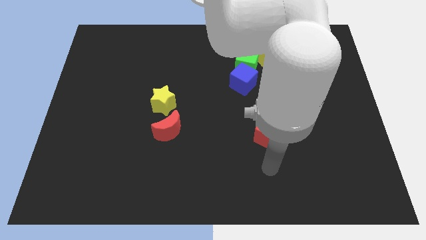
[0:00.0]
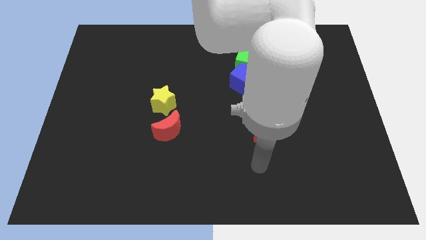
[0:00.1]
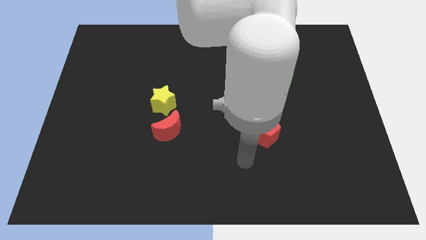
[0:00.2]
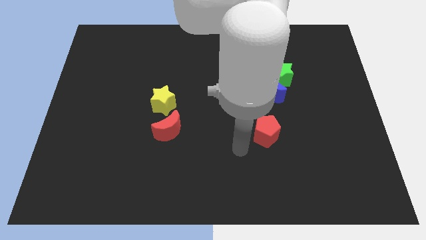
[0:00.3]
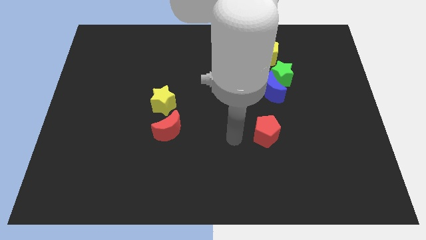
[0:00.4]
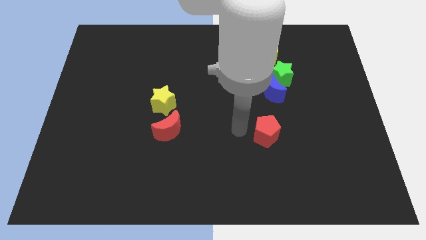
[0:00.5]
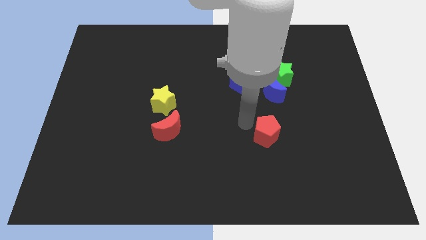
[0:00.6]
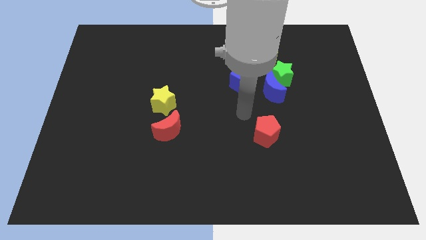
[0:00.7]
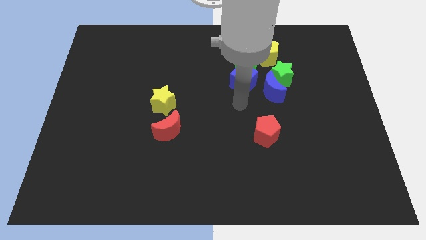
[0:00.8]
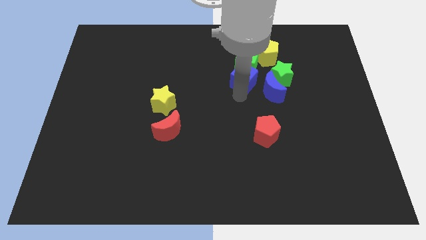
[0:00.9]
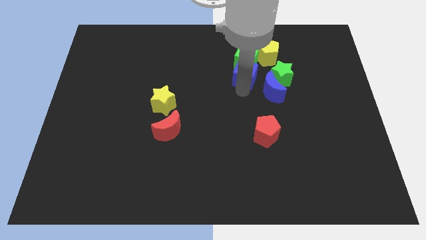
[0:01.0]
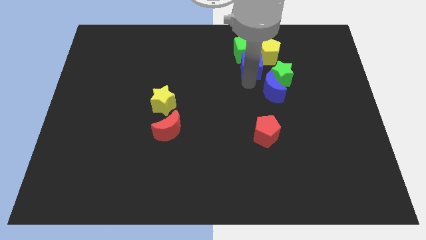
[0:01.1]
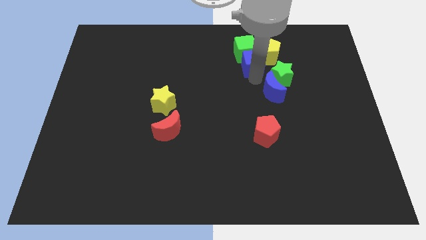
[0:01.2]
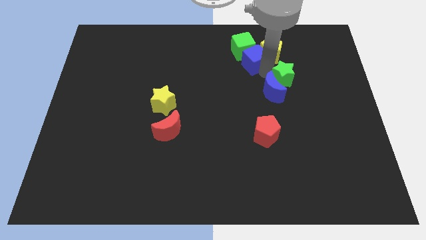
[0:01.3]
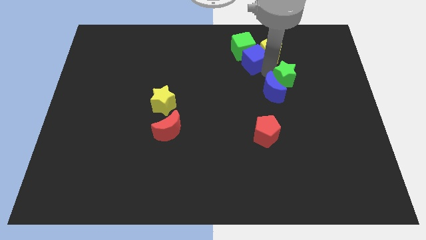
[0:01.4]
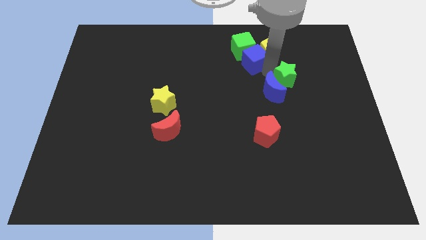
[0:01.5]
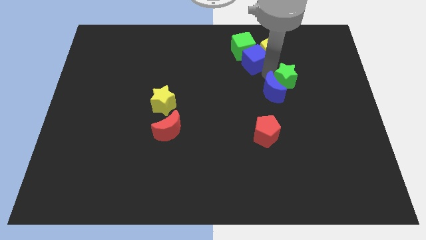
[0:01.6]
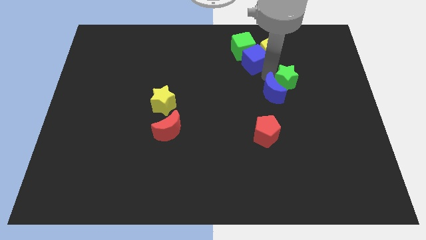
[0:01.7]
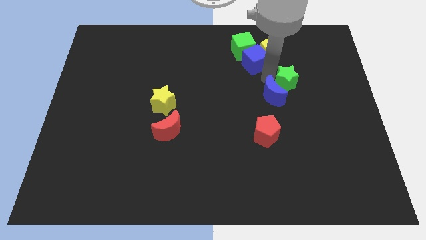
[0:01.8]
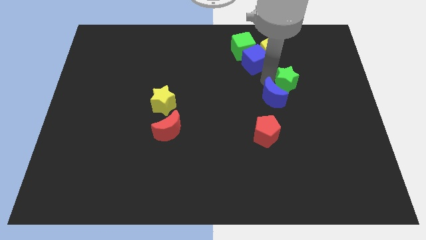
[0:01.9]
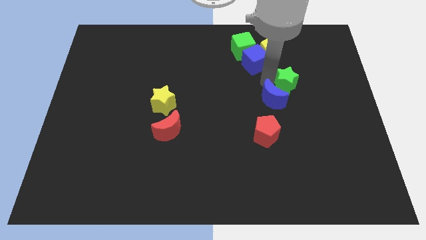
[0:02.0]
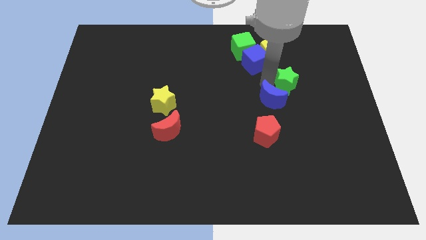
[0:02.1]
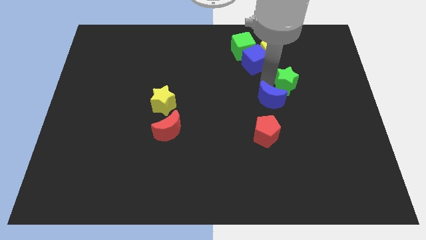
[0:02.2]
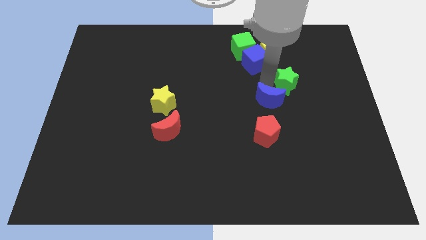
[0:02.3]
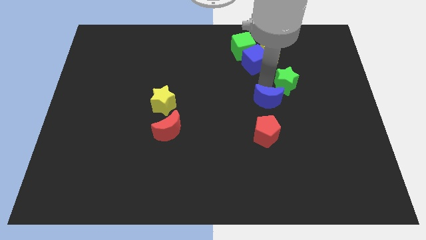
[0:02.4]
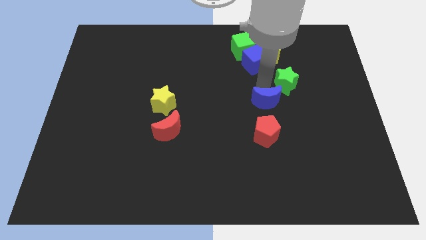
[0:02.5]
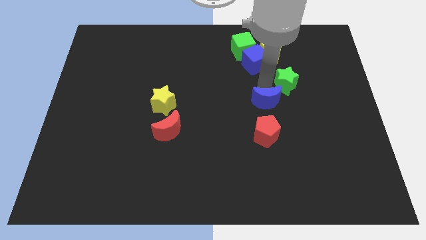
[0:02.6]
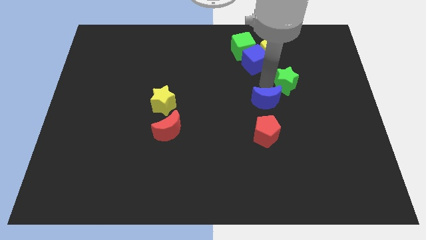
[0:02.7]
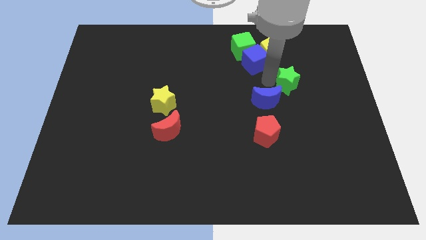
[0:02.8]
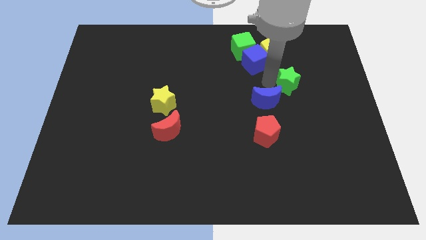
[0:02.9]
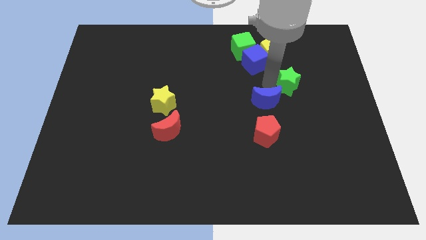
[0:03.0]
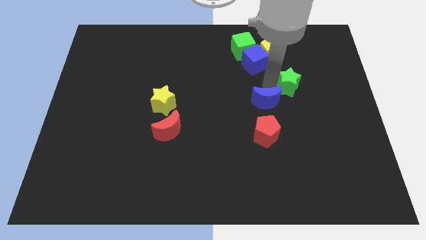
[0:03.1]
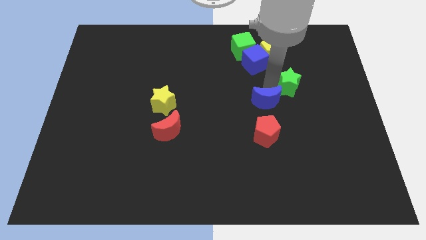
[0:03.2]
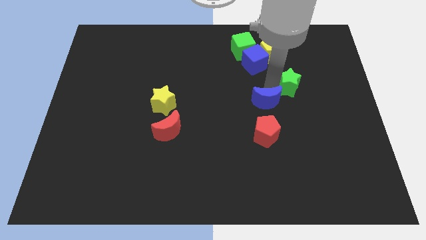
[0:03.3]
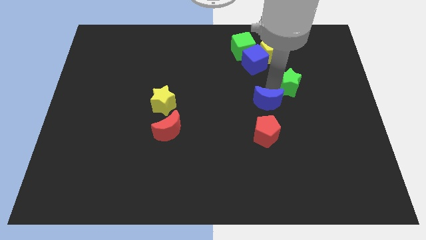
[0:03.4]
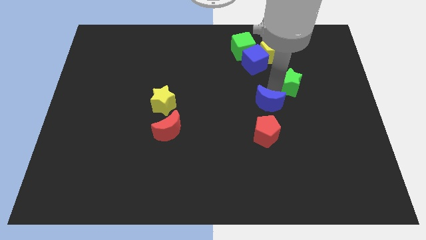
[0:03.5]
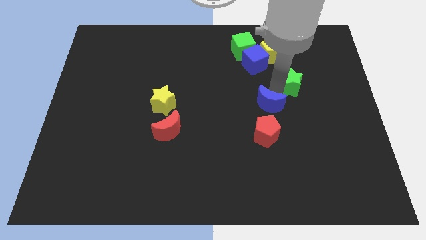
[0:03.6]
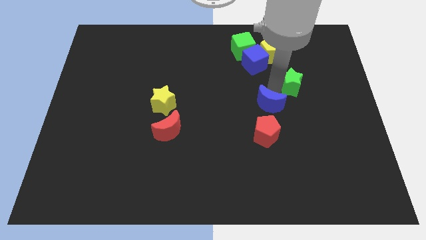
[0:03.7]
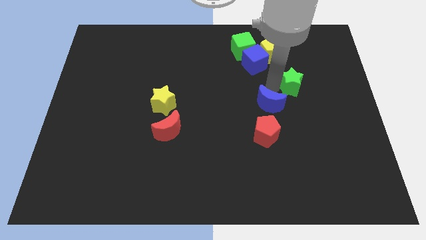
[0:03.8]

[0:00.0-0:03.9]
move the blue moon away from the green star and blue cube

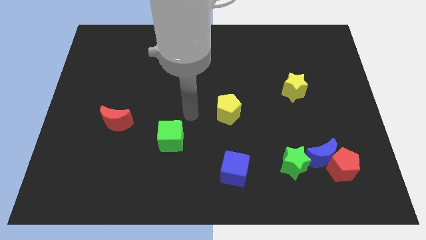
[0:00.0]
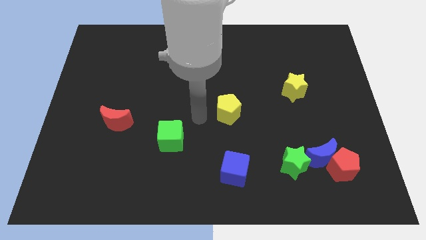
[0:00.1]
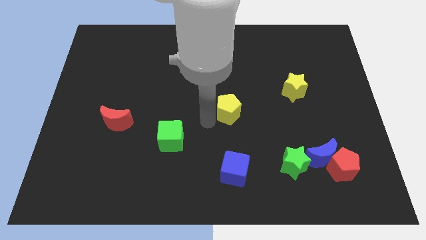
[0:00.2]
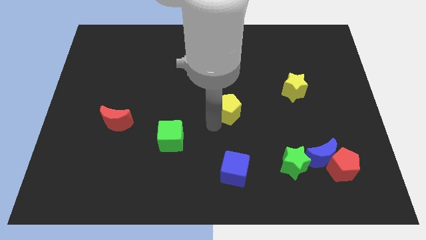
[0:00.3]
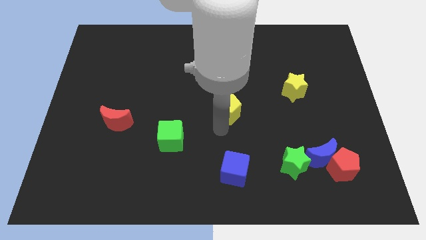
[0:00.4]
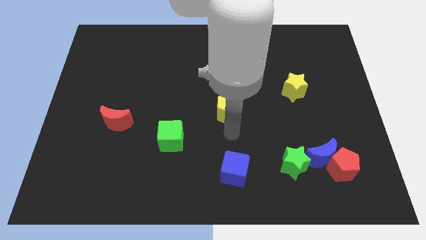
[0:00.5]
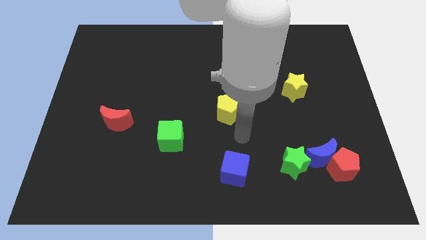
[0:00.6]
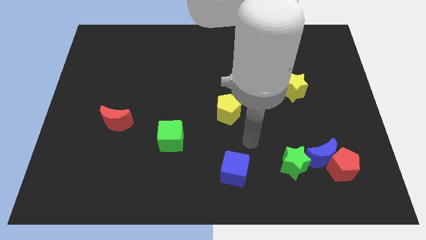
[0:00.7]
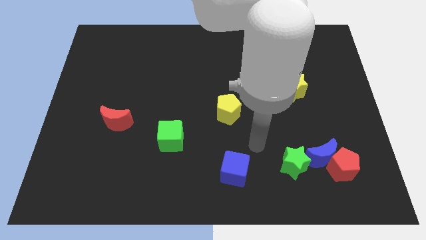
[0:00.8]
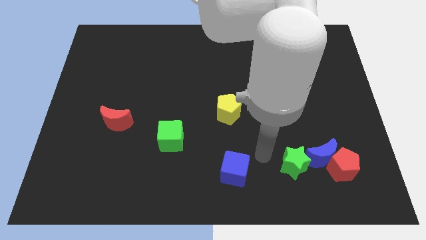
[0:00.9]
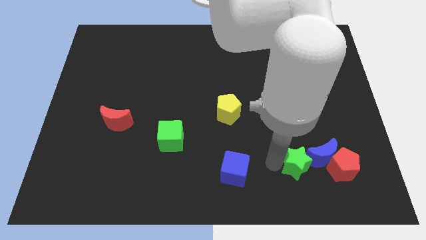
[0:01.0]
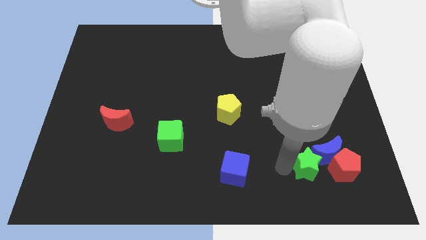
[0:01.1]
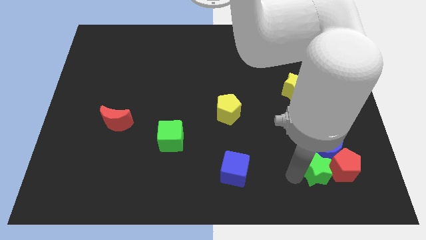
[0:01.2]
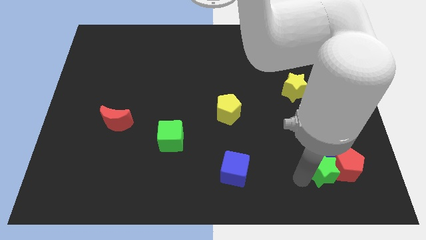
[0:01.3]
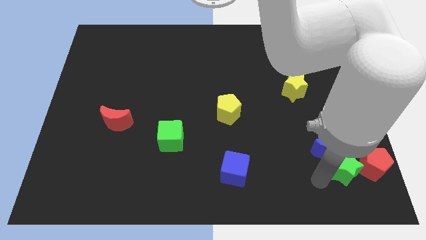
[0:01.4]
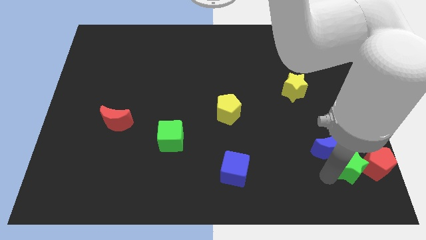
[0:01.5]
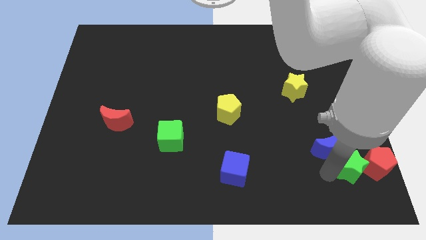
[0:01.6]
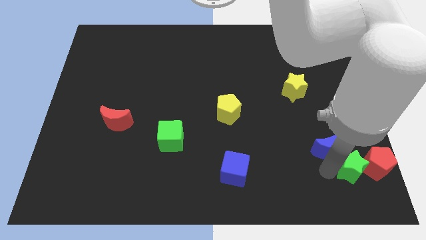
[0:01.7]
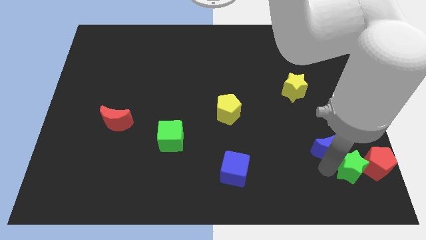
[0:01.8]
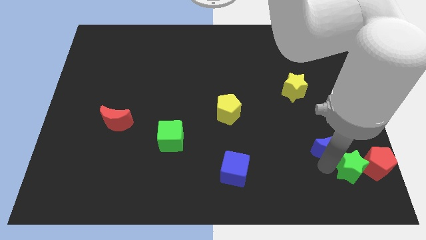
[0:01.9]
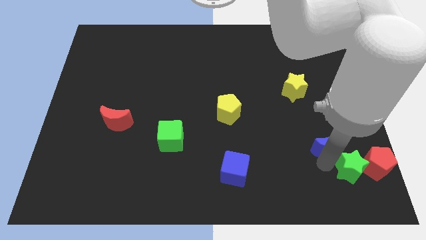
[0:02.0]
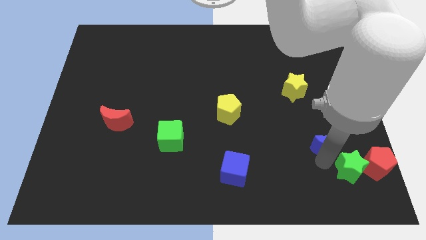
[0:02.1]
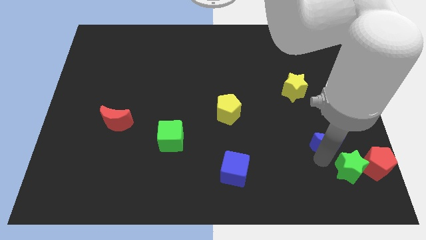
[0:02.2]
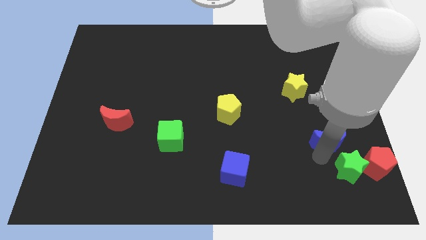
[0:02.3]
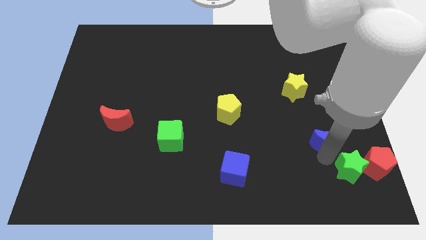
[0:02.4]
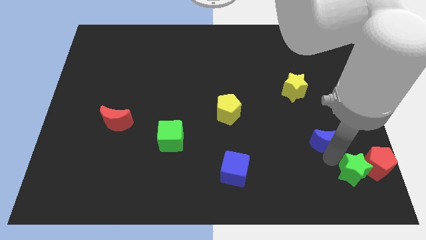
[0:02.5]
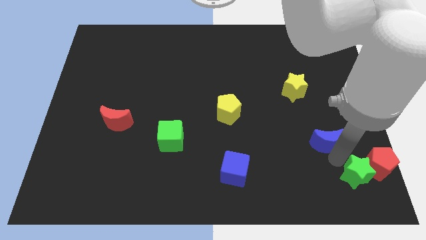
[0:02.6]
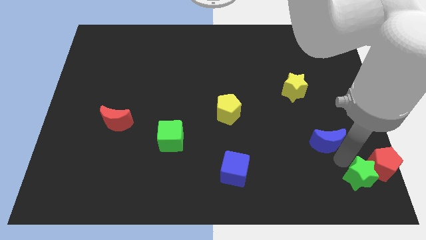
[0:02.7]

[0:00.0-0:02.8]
pull the blue moon apart from the red pentagon and green star

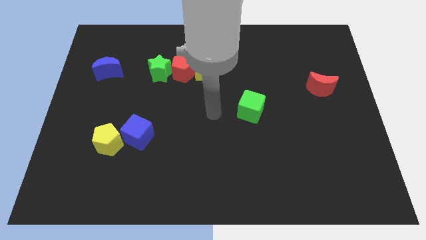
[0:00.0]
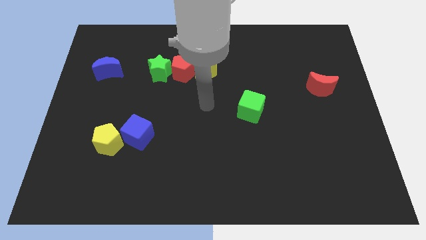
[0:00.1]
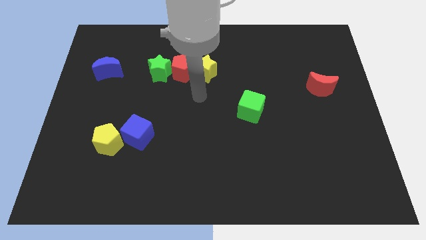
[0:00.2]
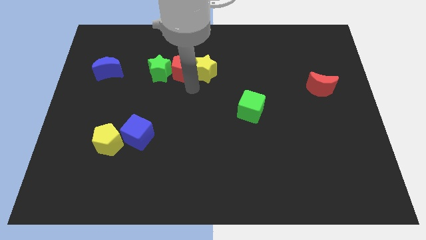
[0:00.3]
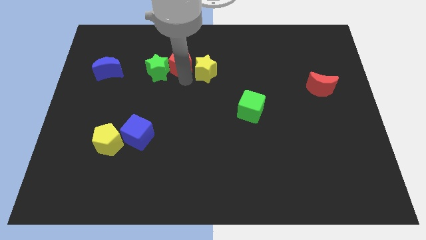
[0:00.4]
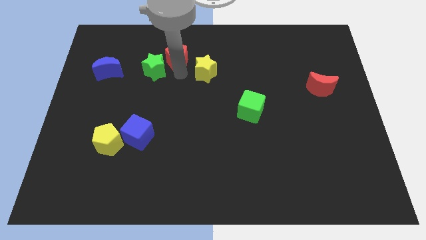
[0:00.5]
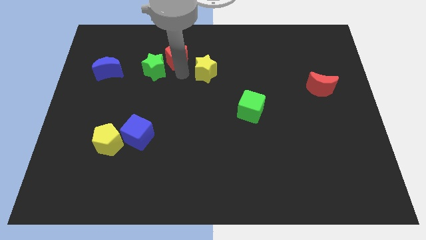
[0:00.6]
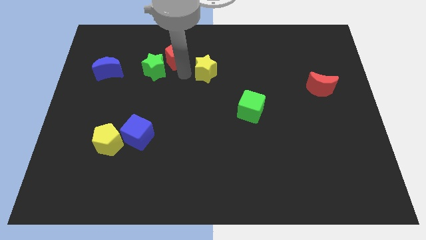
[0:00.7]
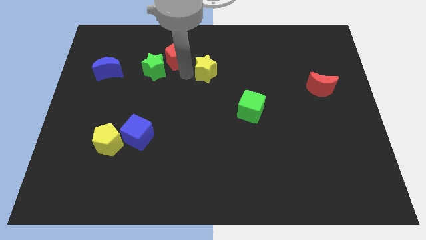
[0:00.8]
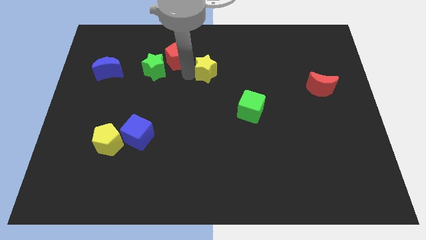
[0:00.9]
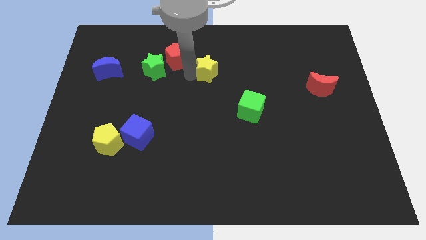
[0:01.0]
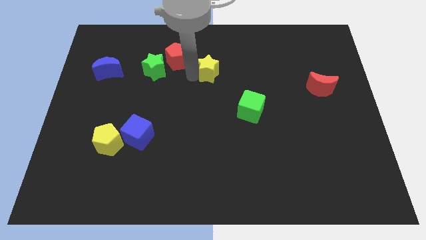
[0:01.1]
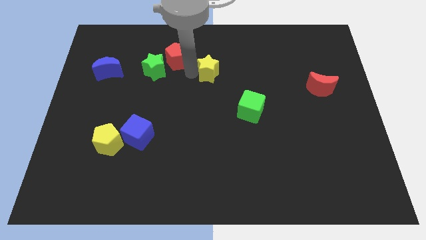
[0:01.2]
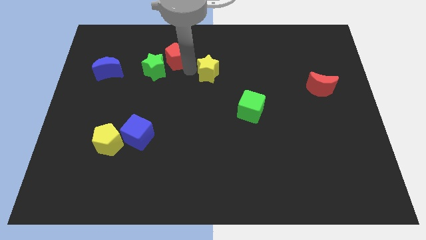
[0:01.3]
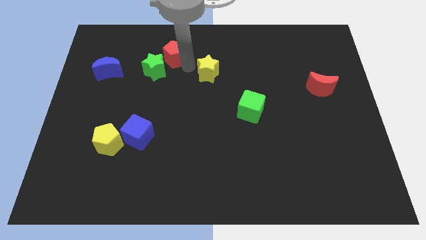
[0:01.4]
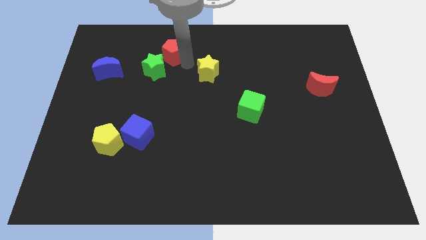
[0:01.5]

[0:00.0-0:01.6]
pull the yellow star apart from the red pentagon

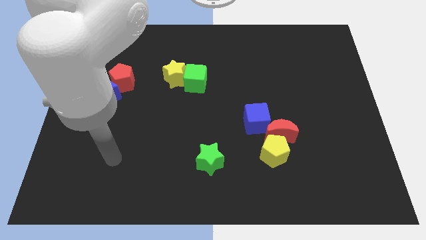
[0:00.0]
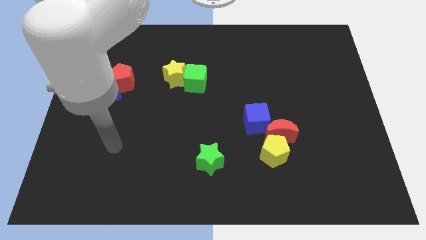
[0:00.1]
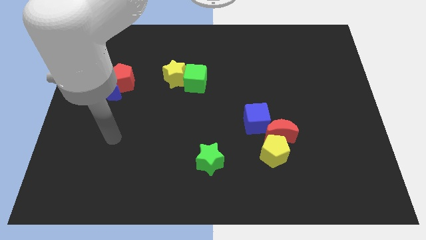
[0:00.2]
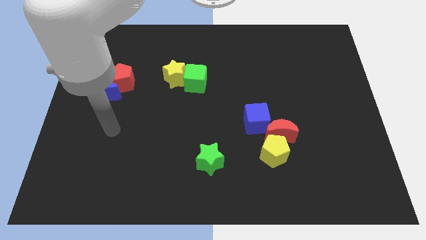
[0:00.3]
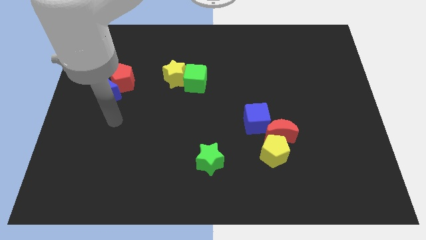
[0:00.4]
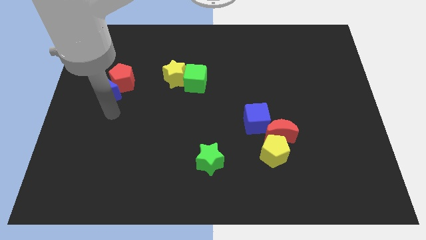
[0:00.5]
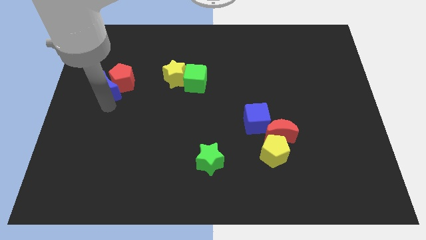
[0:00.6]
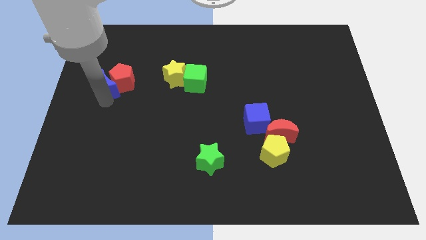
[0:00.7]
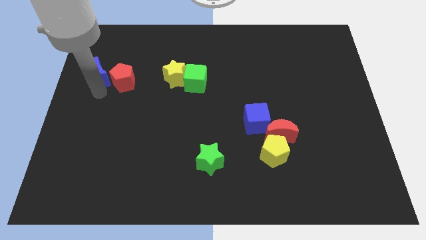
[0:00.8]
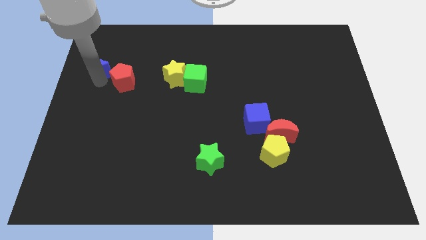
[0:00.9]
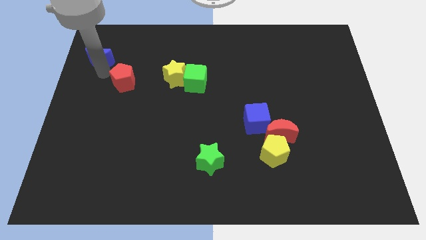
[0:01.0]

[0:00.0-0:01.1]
separate the red pentagon from the blue moon
